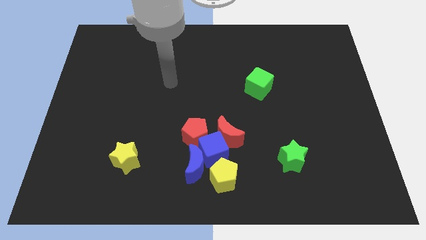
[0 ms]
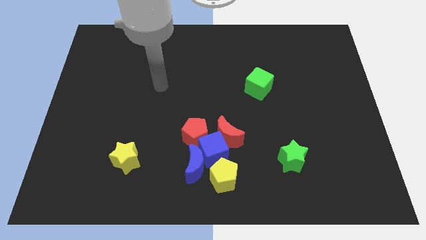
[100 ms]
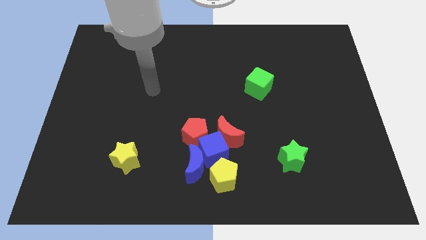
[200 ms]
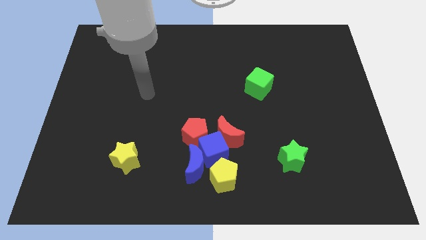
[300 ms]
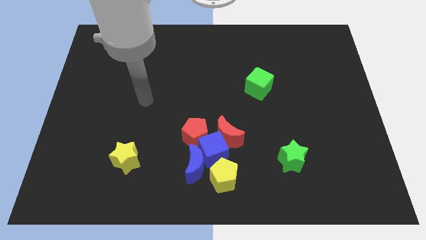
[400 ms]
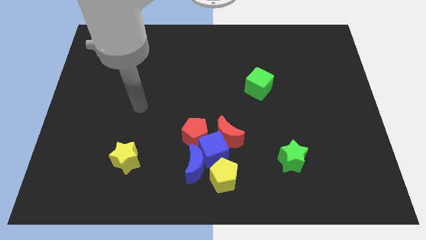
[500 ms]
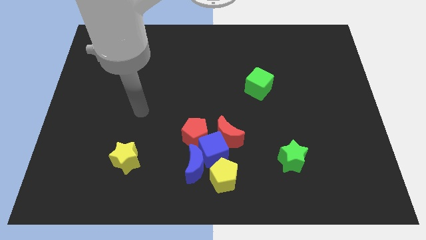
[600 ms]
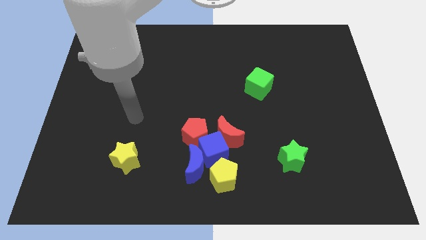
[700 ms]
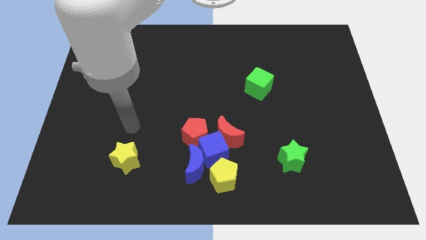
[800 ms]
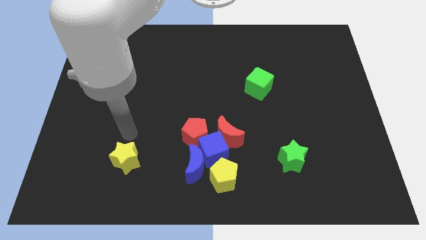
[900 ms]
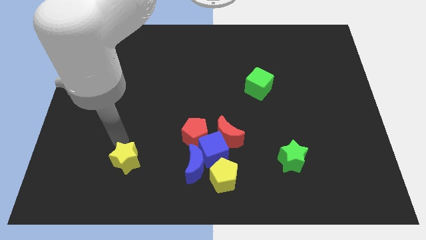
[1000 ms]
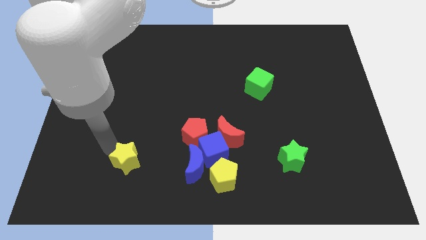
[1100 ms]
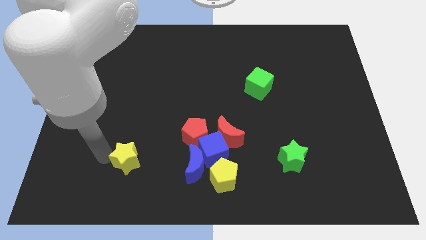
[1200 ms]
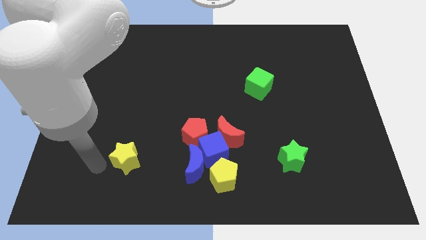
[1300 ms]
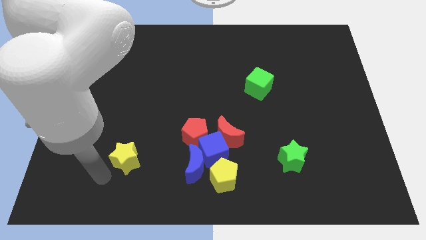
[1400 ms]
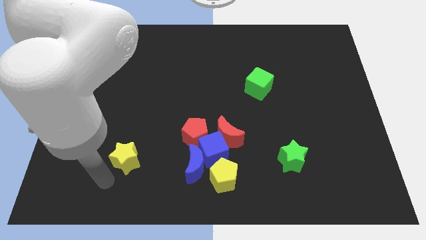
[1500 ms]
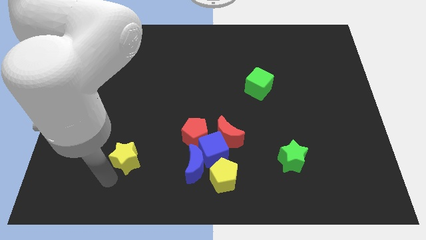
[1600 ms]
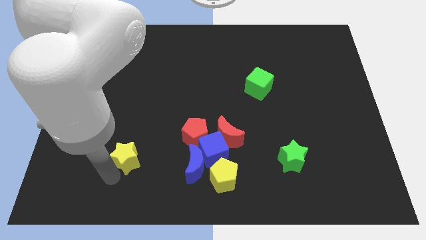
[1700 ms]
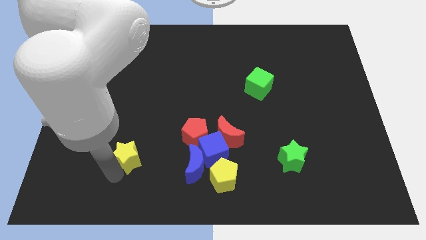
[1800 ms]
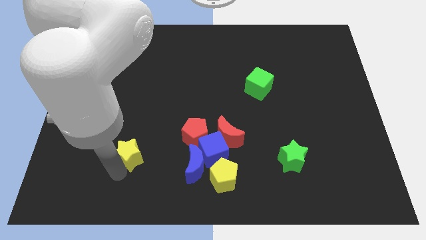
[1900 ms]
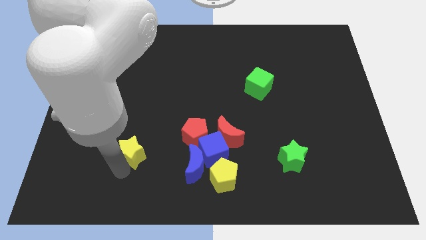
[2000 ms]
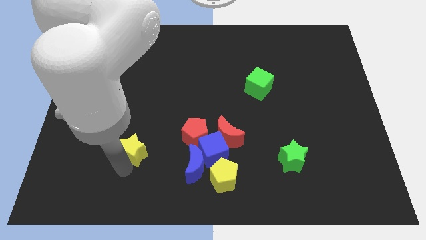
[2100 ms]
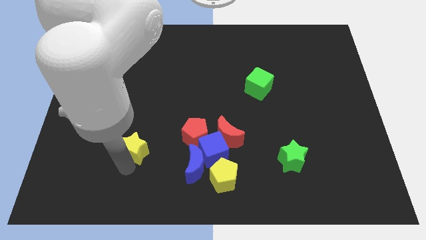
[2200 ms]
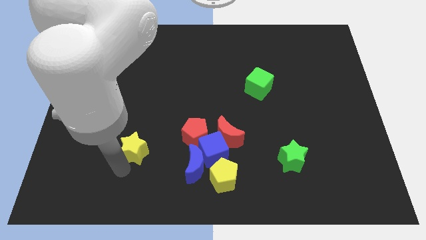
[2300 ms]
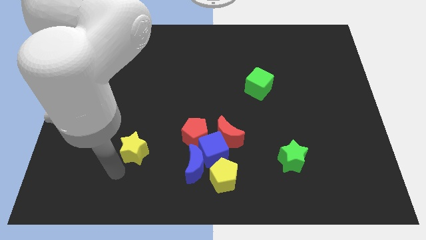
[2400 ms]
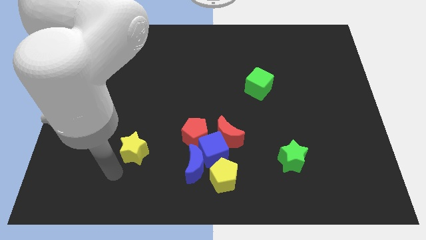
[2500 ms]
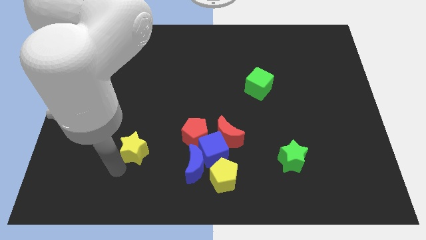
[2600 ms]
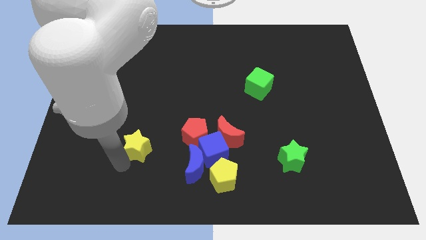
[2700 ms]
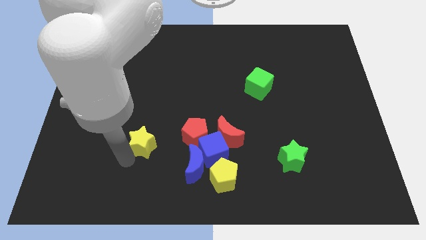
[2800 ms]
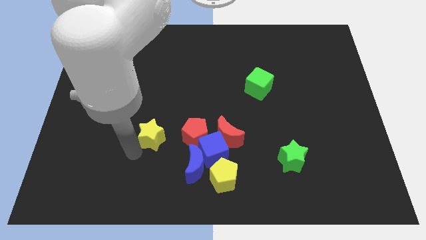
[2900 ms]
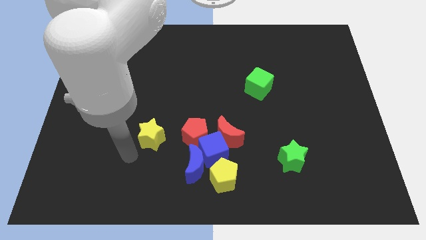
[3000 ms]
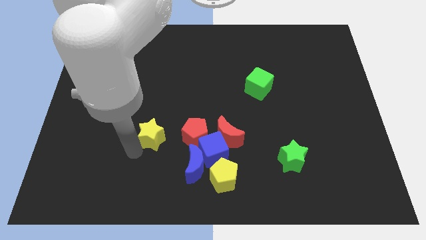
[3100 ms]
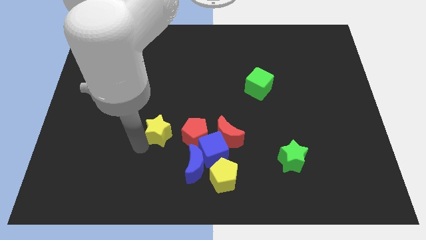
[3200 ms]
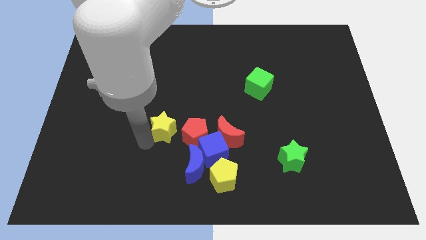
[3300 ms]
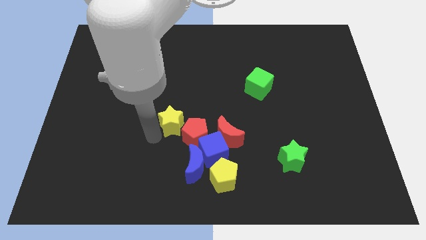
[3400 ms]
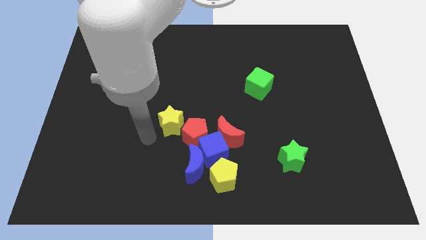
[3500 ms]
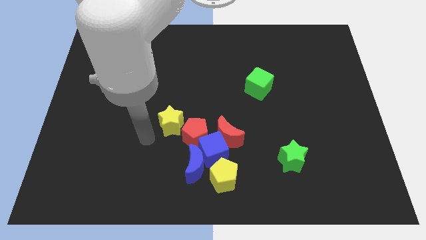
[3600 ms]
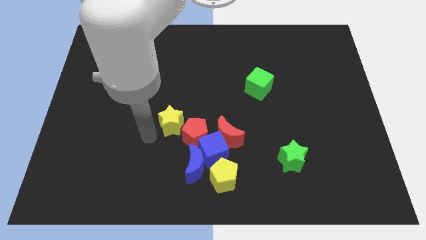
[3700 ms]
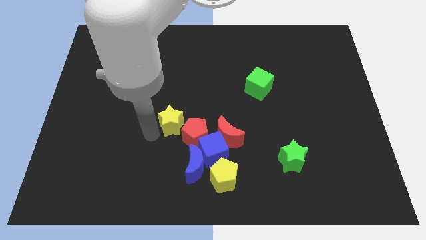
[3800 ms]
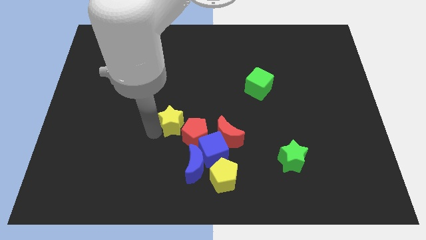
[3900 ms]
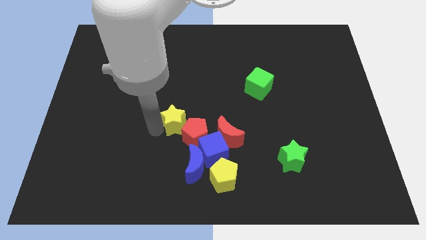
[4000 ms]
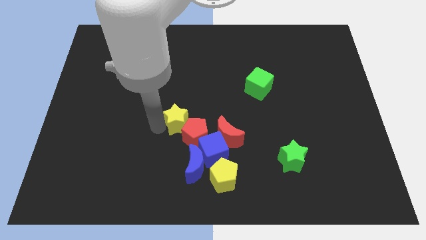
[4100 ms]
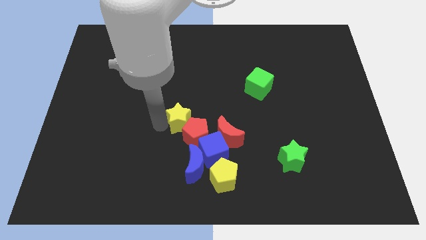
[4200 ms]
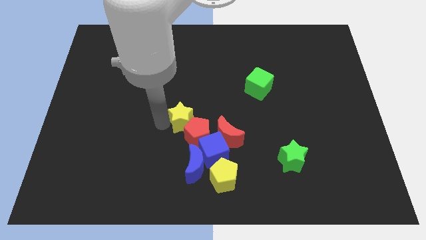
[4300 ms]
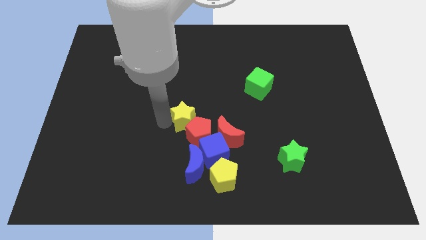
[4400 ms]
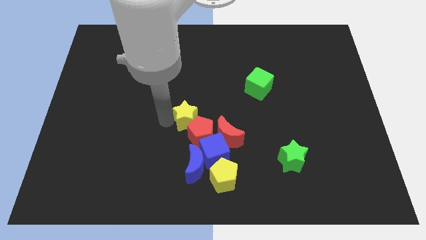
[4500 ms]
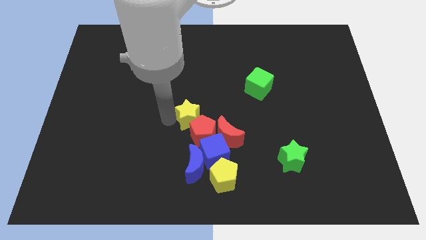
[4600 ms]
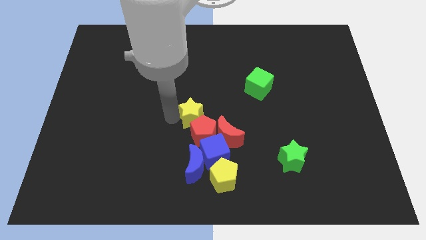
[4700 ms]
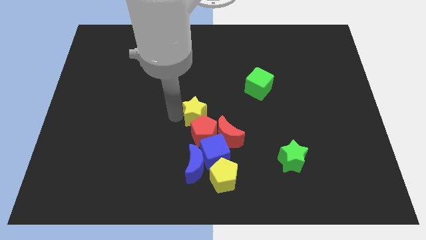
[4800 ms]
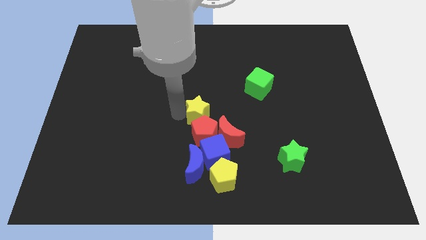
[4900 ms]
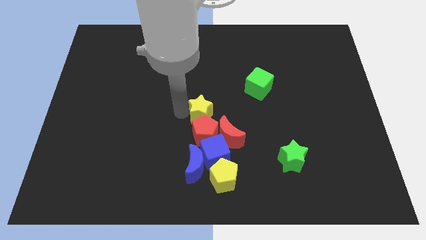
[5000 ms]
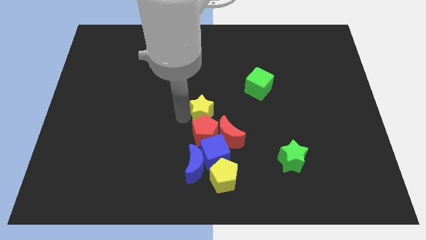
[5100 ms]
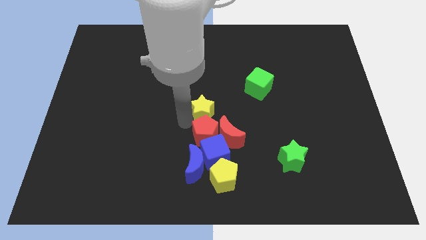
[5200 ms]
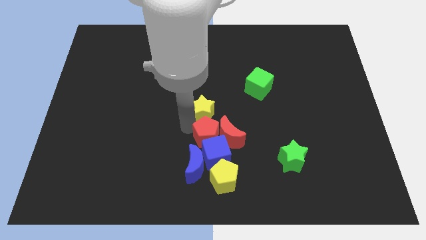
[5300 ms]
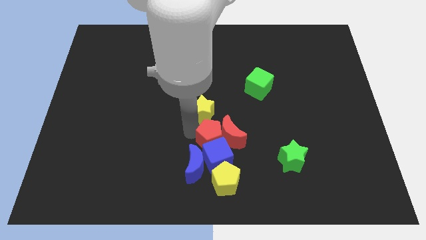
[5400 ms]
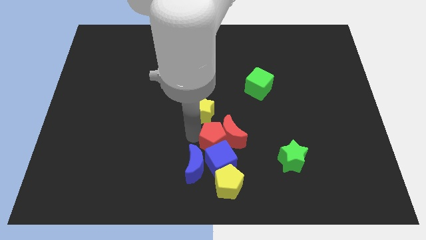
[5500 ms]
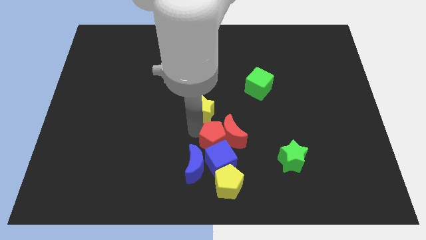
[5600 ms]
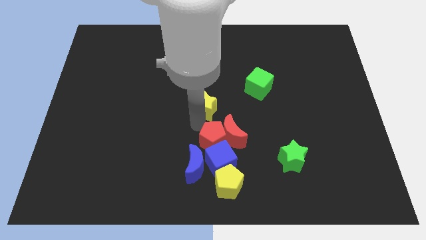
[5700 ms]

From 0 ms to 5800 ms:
push the yellow star upwards and then to the right

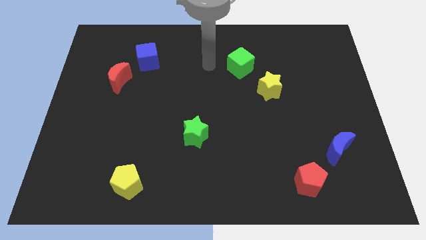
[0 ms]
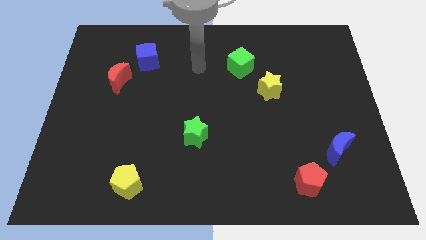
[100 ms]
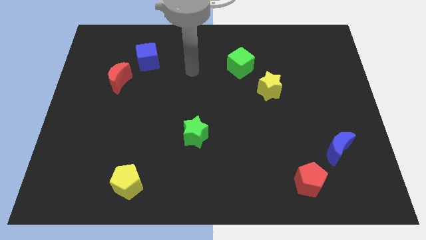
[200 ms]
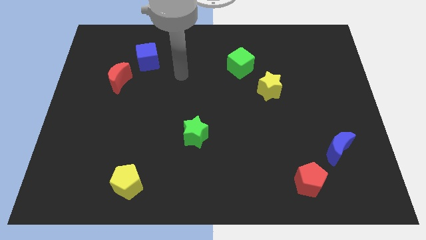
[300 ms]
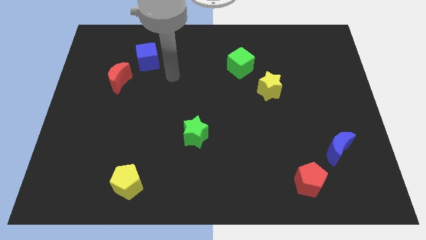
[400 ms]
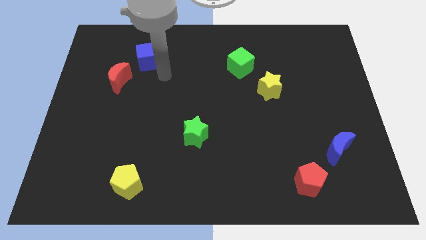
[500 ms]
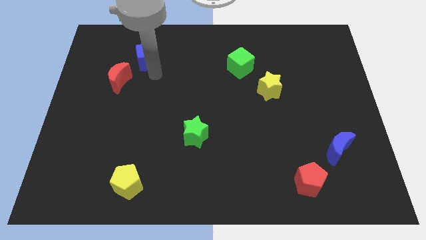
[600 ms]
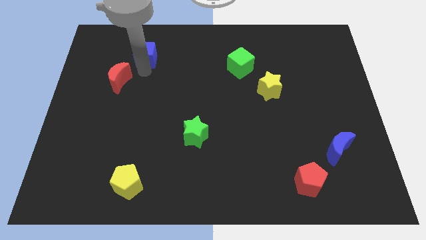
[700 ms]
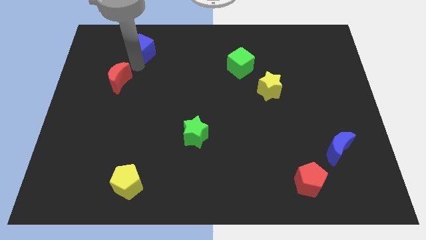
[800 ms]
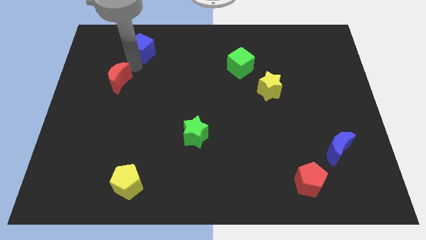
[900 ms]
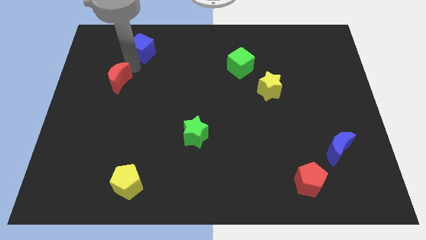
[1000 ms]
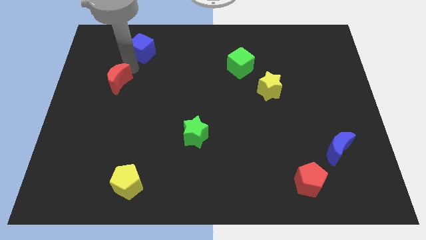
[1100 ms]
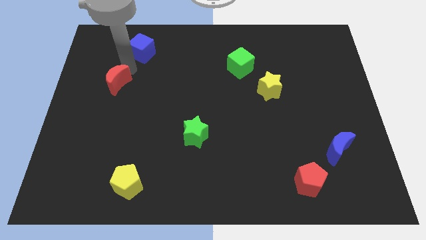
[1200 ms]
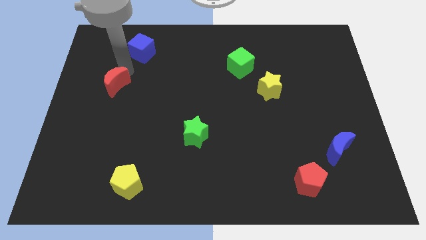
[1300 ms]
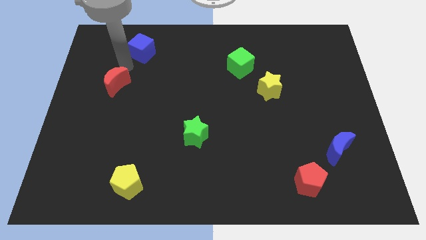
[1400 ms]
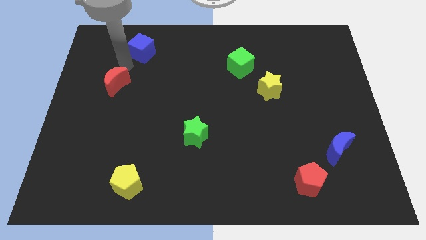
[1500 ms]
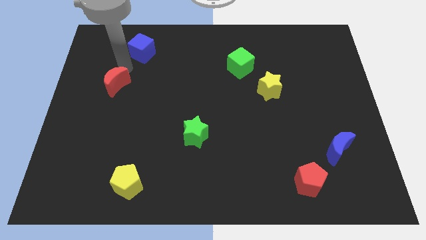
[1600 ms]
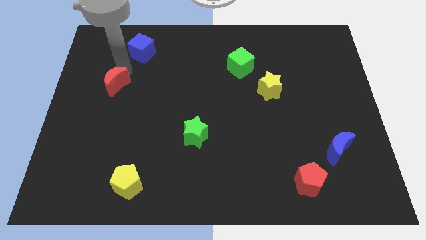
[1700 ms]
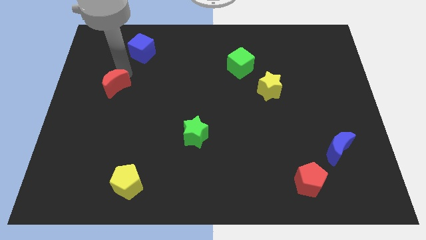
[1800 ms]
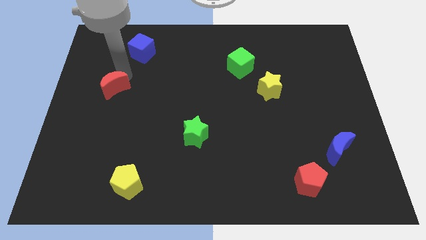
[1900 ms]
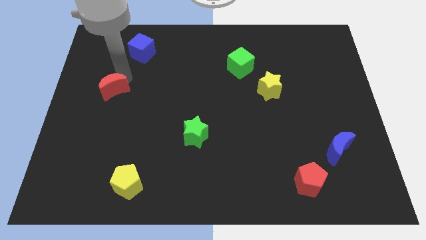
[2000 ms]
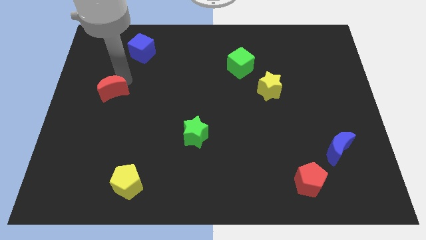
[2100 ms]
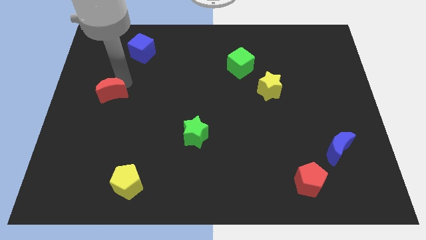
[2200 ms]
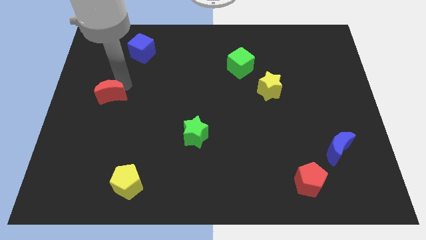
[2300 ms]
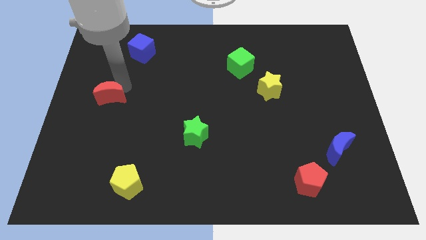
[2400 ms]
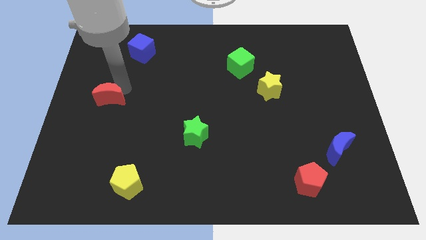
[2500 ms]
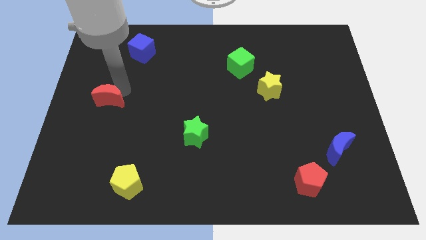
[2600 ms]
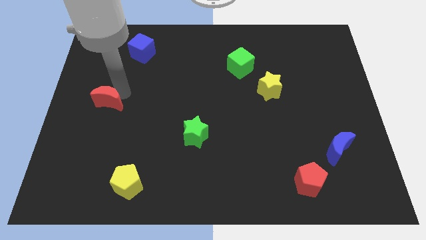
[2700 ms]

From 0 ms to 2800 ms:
slightly move the red moon downwards
